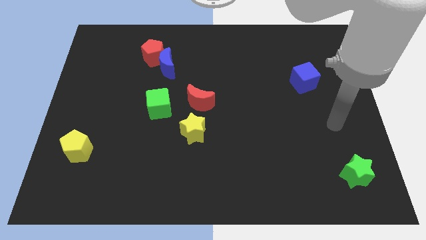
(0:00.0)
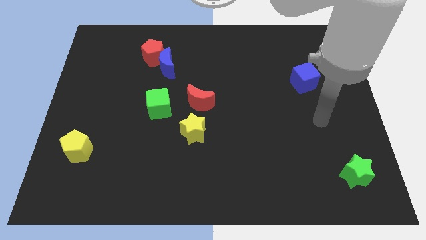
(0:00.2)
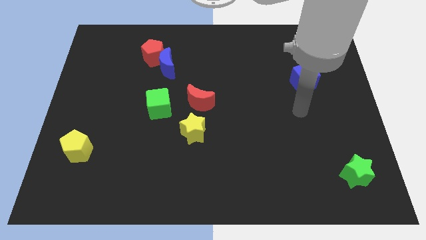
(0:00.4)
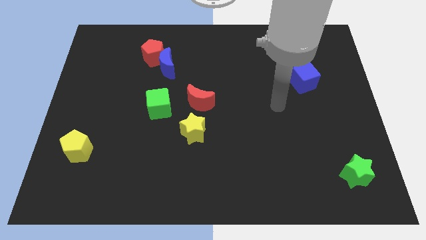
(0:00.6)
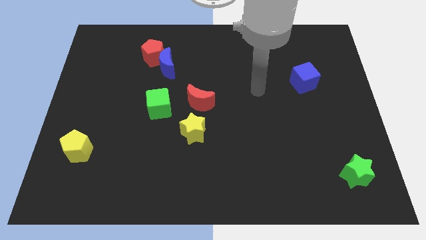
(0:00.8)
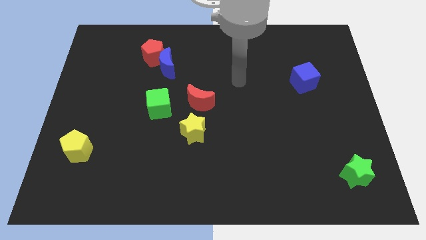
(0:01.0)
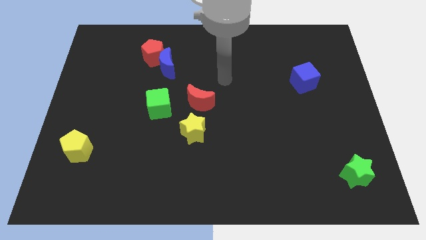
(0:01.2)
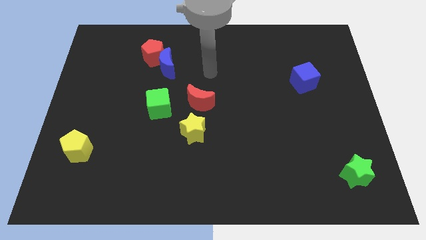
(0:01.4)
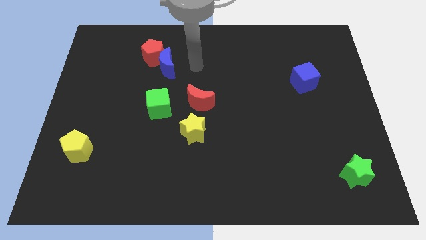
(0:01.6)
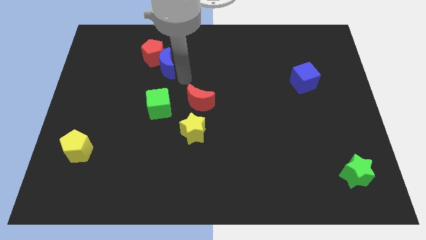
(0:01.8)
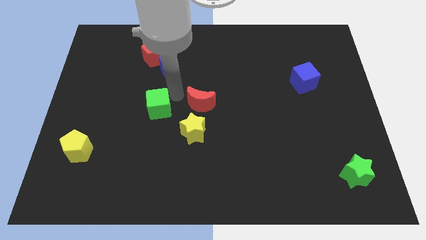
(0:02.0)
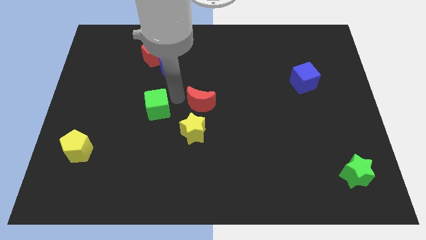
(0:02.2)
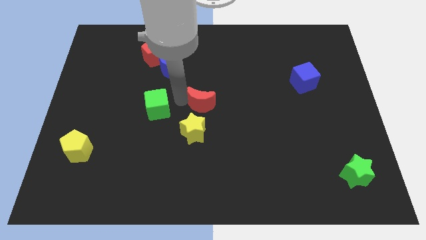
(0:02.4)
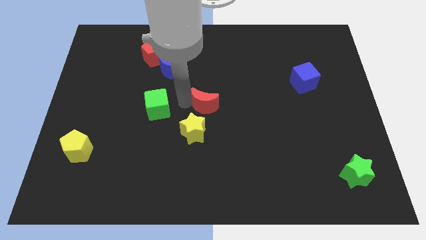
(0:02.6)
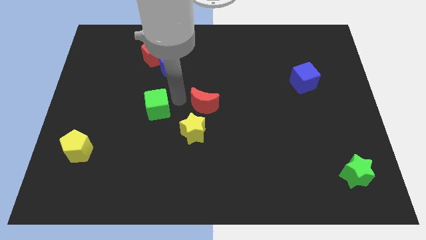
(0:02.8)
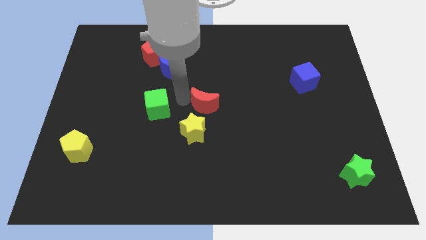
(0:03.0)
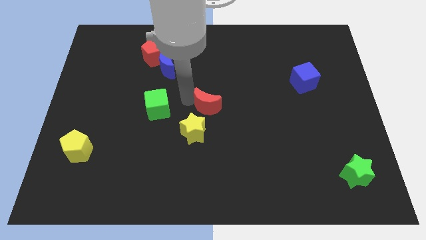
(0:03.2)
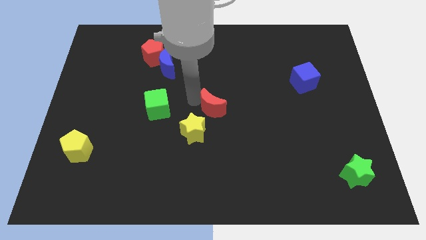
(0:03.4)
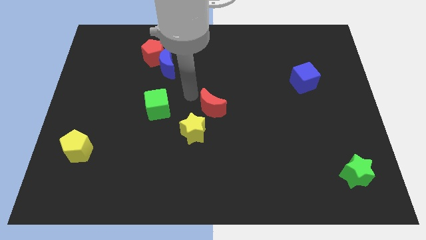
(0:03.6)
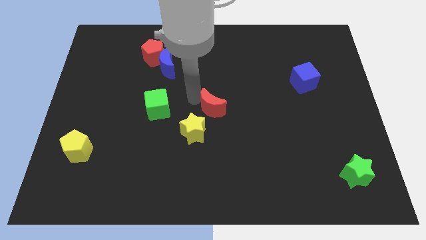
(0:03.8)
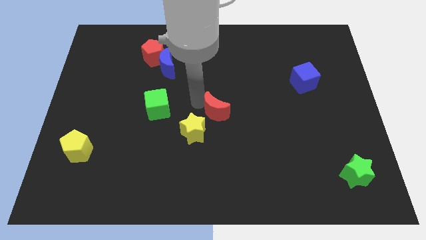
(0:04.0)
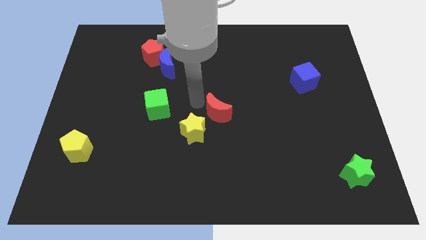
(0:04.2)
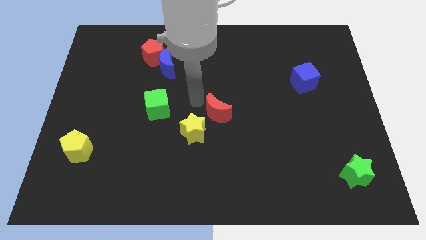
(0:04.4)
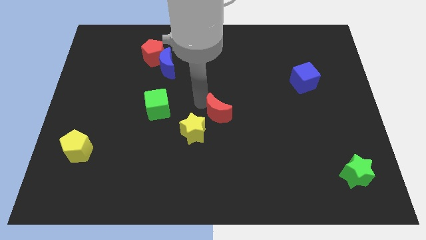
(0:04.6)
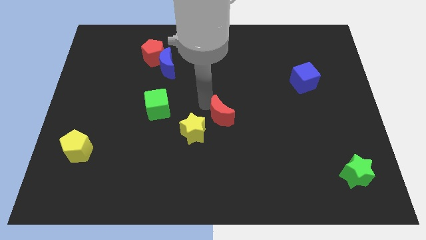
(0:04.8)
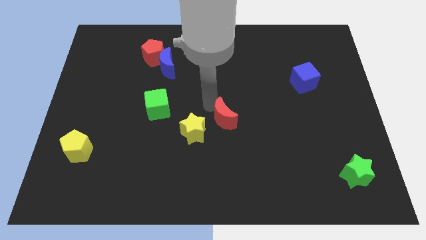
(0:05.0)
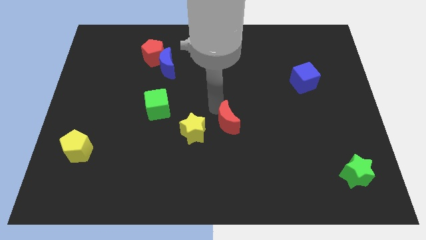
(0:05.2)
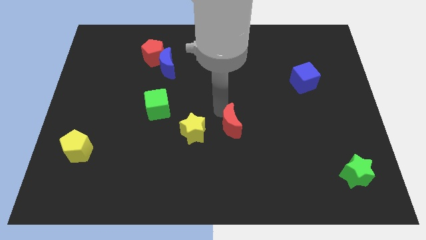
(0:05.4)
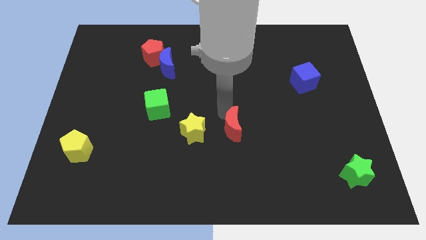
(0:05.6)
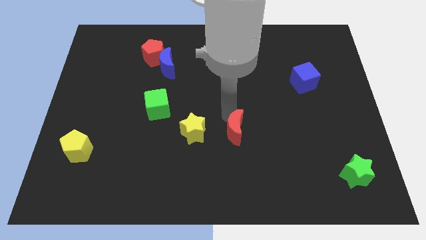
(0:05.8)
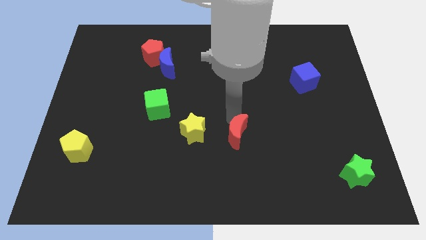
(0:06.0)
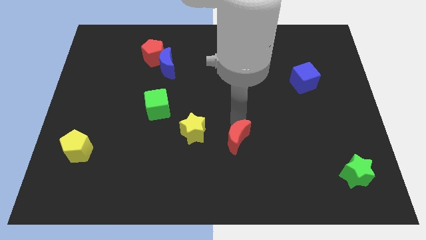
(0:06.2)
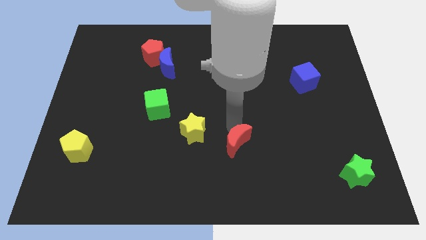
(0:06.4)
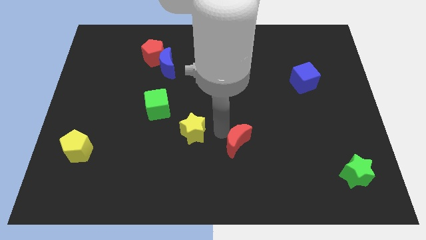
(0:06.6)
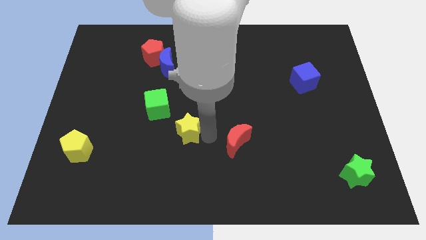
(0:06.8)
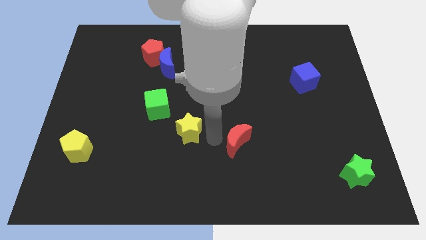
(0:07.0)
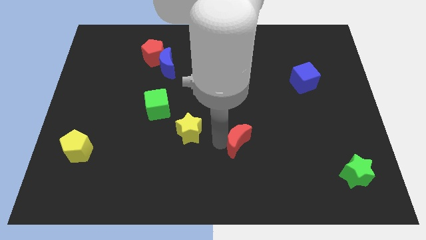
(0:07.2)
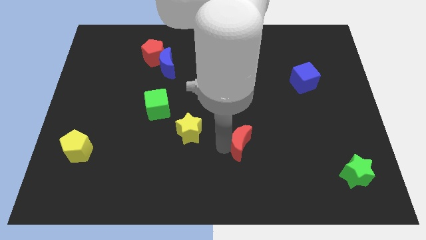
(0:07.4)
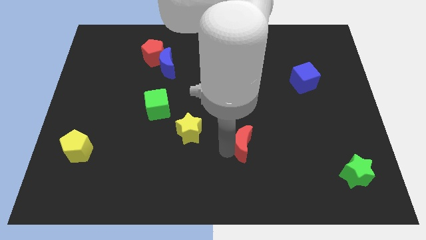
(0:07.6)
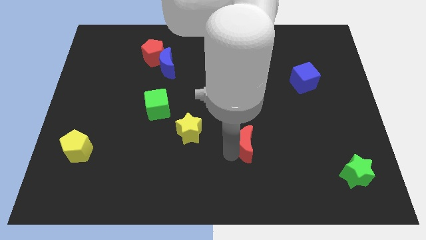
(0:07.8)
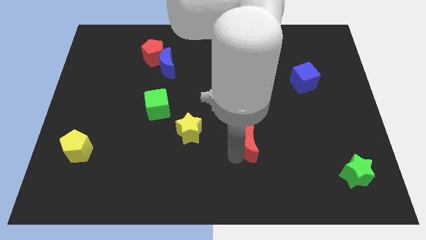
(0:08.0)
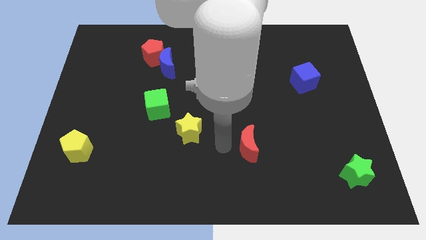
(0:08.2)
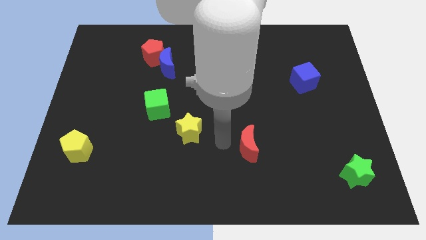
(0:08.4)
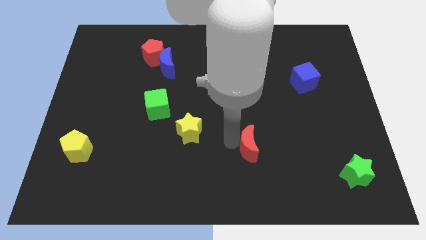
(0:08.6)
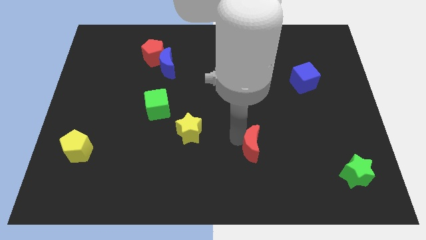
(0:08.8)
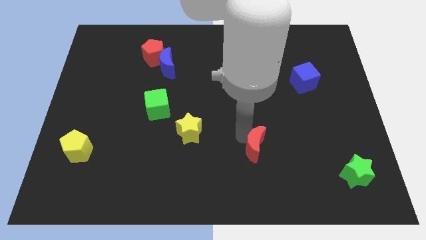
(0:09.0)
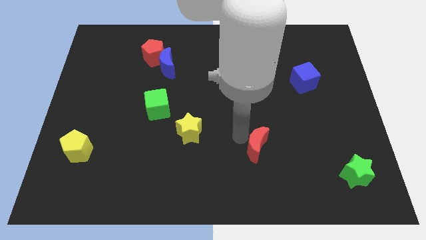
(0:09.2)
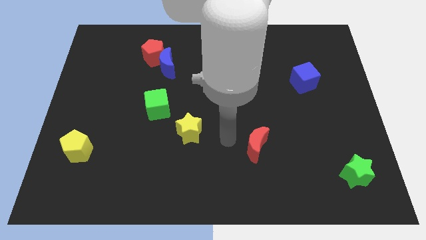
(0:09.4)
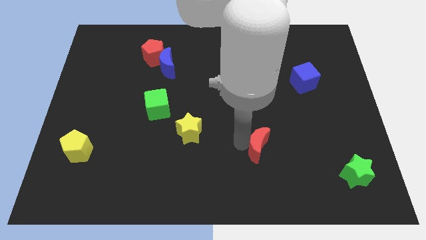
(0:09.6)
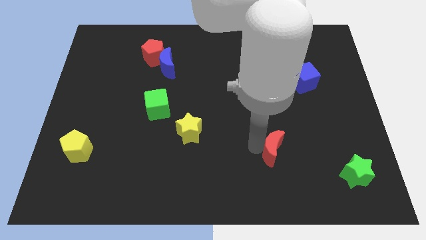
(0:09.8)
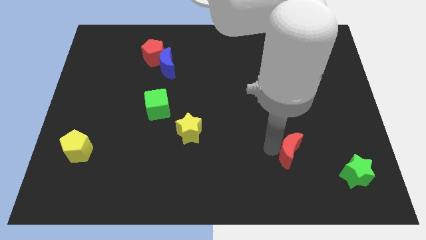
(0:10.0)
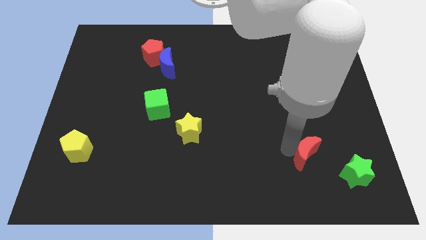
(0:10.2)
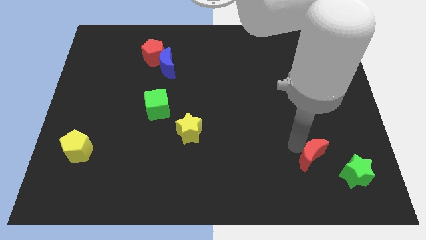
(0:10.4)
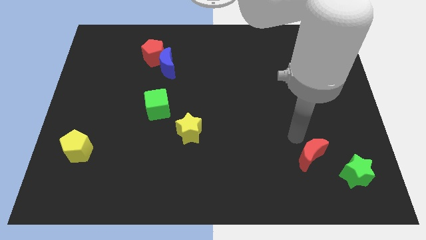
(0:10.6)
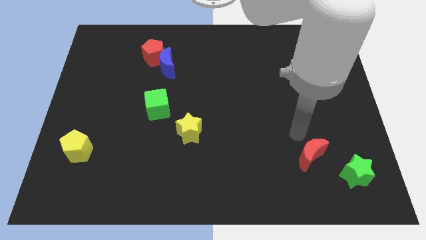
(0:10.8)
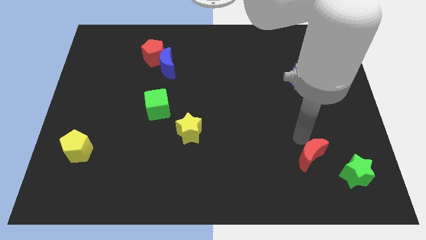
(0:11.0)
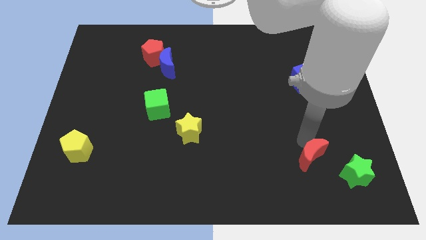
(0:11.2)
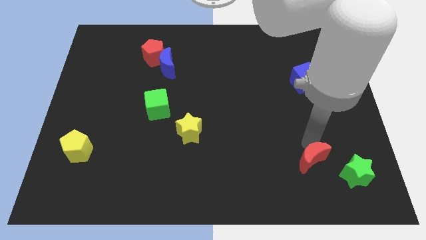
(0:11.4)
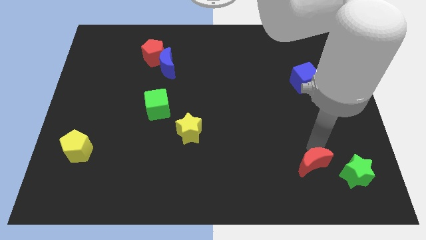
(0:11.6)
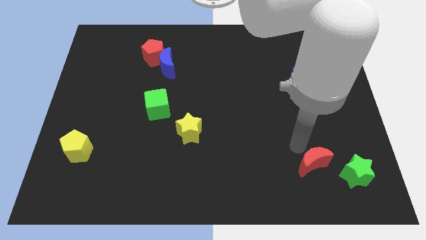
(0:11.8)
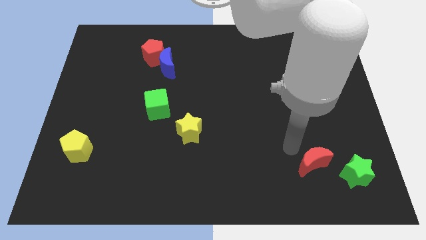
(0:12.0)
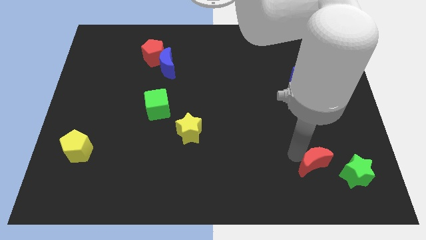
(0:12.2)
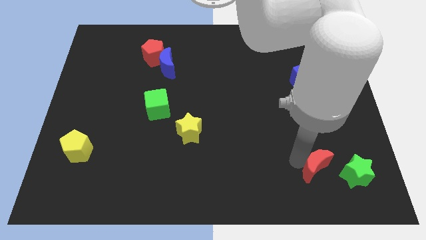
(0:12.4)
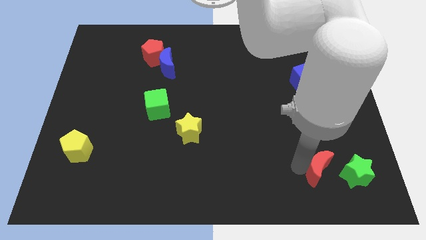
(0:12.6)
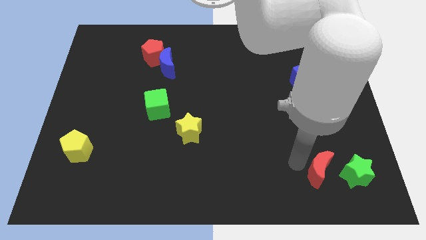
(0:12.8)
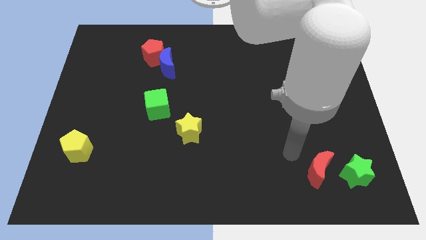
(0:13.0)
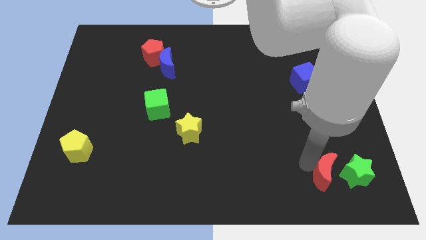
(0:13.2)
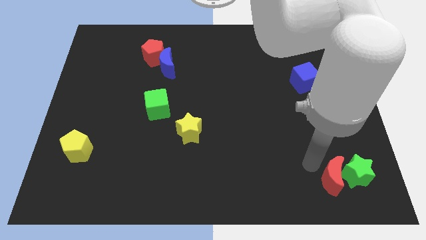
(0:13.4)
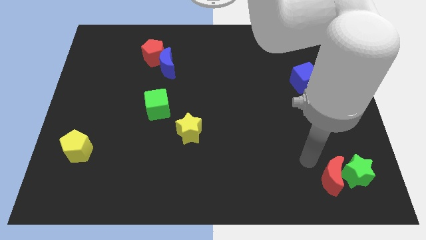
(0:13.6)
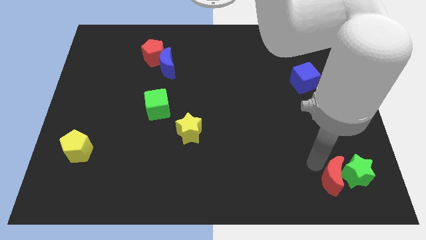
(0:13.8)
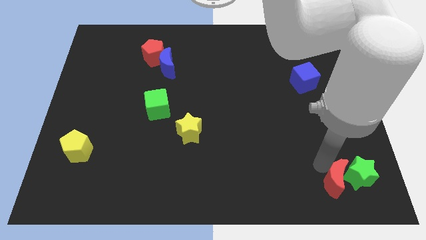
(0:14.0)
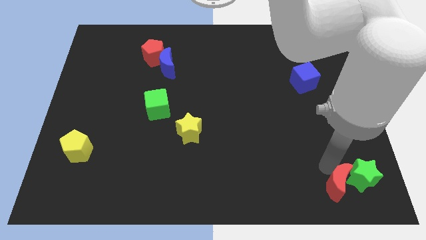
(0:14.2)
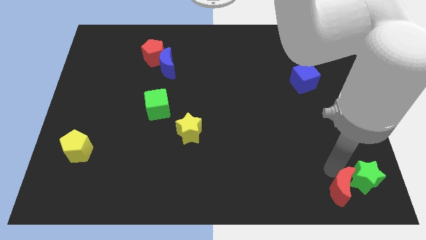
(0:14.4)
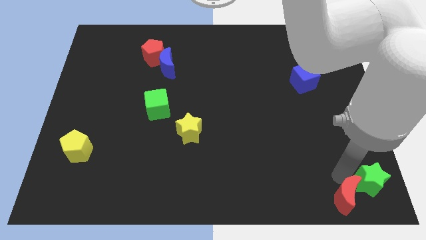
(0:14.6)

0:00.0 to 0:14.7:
move the red moon to the bottom right corner
